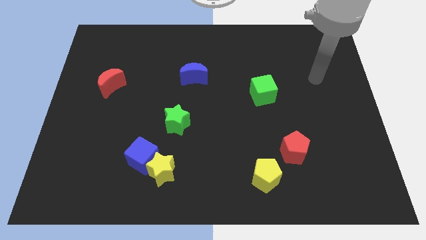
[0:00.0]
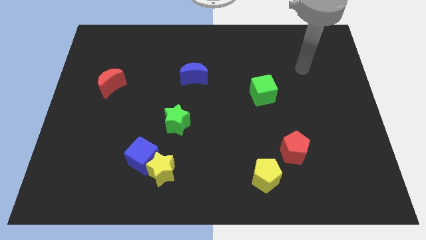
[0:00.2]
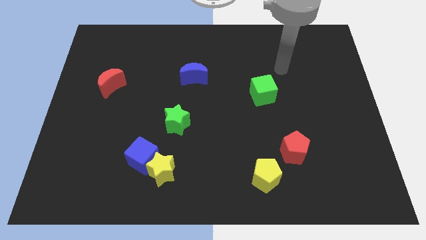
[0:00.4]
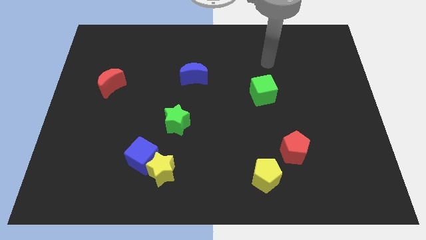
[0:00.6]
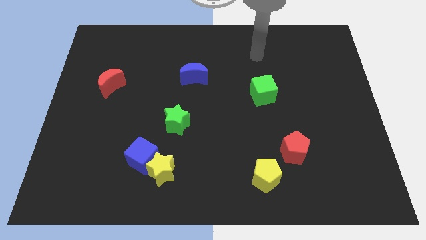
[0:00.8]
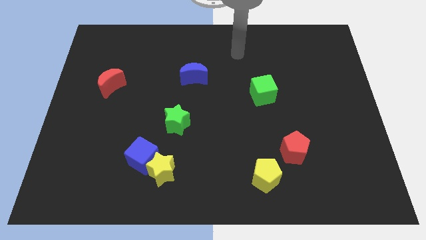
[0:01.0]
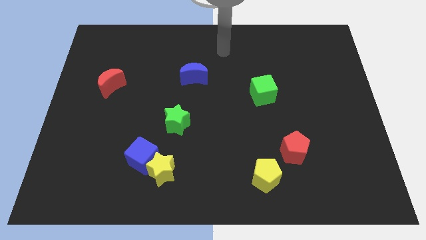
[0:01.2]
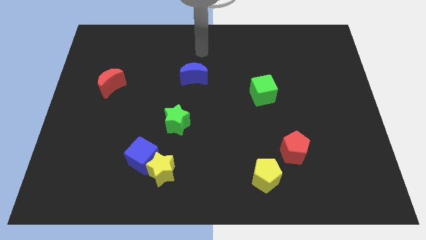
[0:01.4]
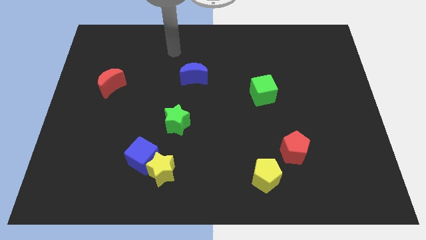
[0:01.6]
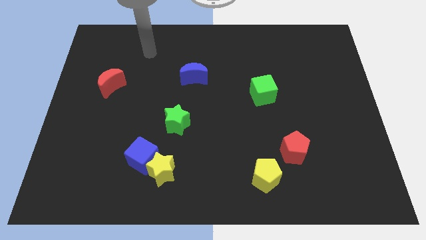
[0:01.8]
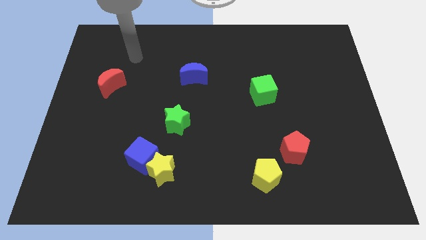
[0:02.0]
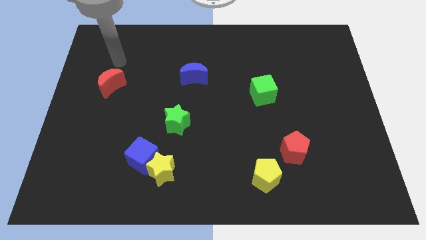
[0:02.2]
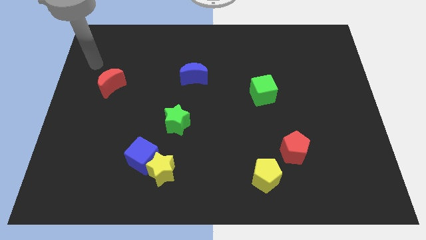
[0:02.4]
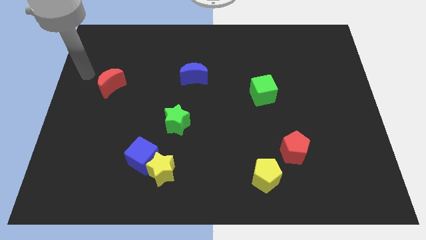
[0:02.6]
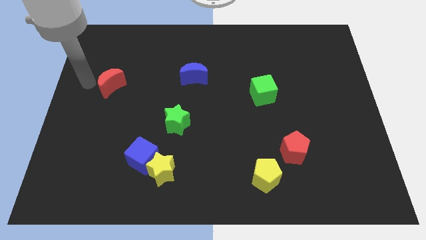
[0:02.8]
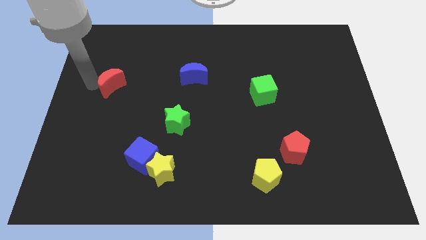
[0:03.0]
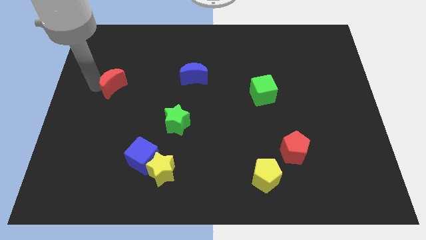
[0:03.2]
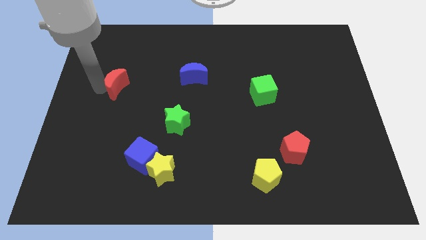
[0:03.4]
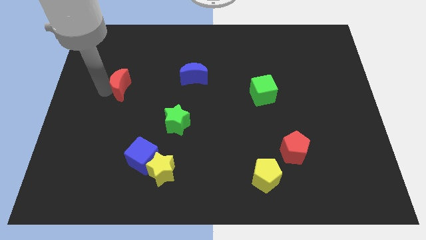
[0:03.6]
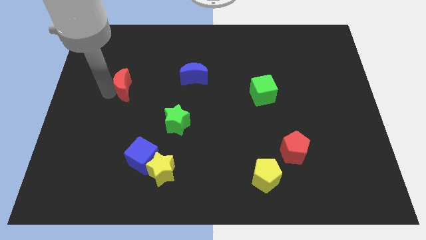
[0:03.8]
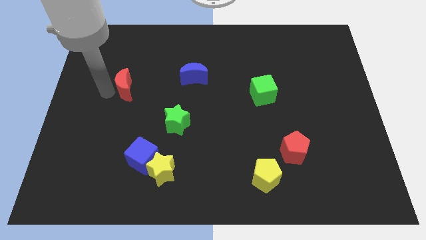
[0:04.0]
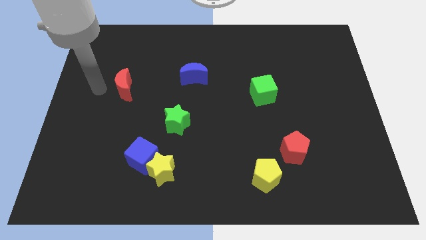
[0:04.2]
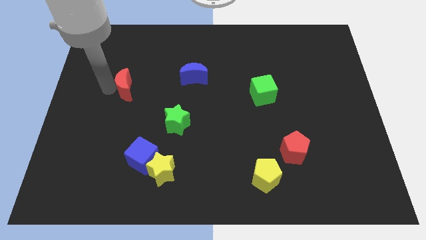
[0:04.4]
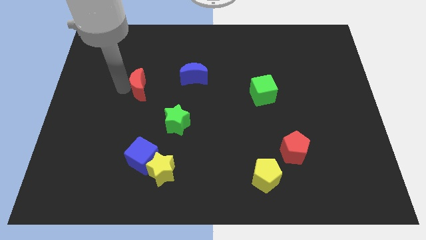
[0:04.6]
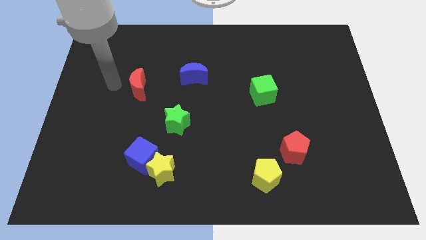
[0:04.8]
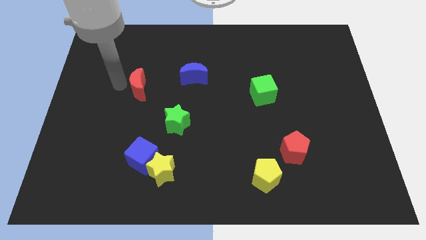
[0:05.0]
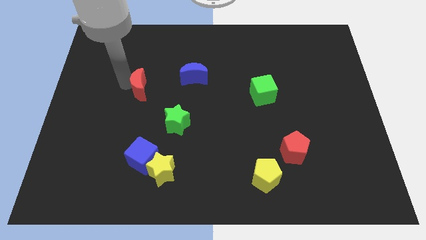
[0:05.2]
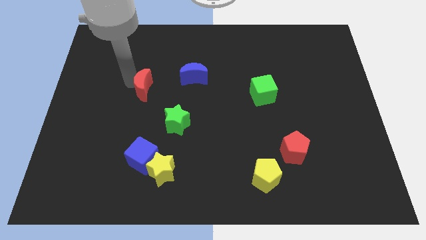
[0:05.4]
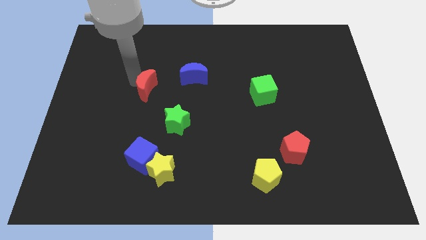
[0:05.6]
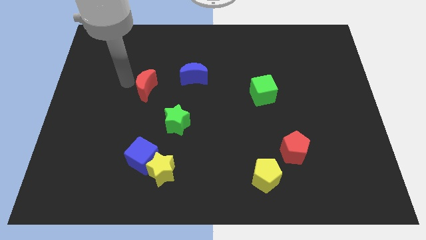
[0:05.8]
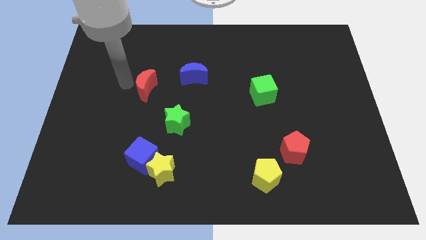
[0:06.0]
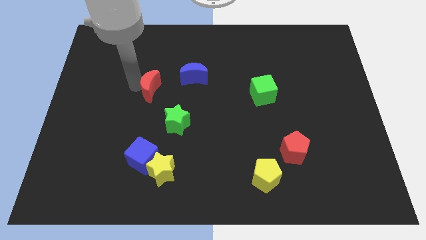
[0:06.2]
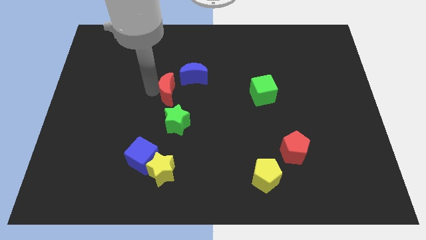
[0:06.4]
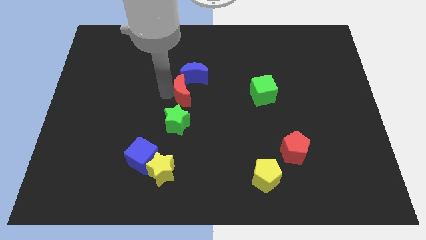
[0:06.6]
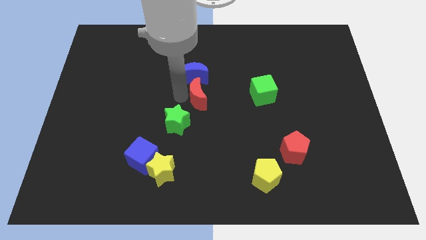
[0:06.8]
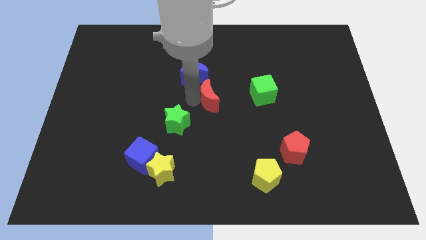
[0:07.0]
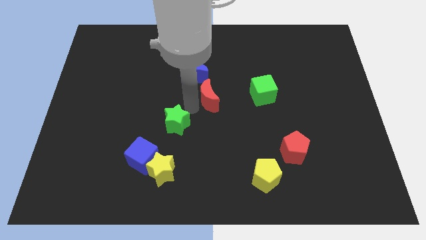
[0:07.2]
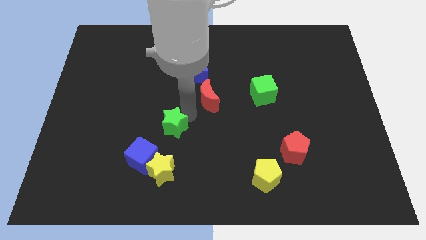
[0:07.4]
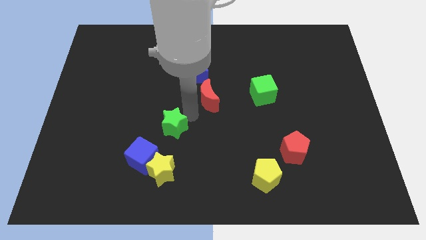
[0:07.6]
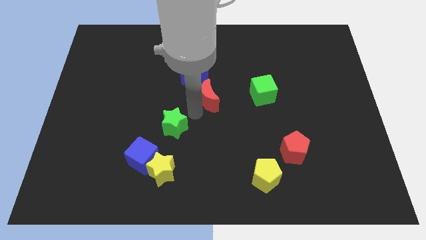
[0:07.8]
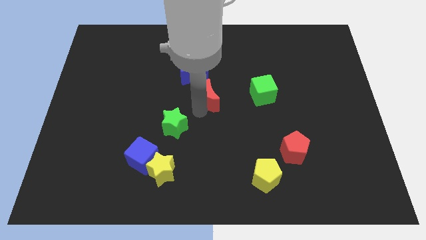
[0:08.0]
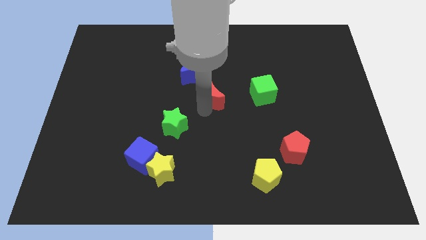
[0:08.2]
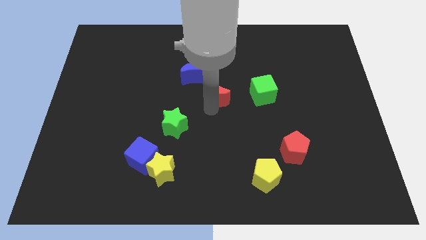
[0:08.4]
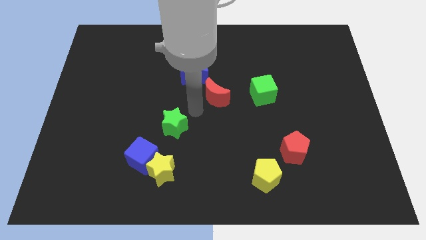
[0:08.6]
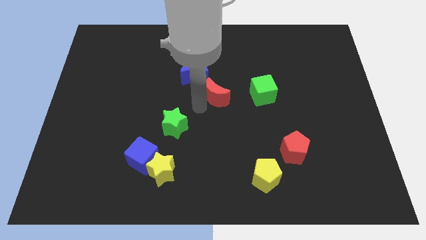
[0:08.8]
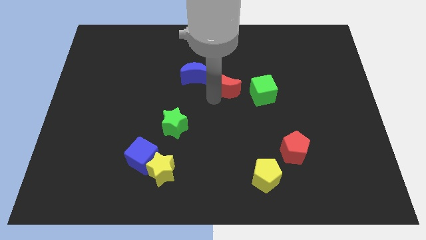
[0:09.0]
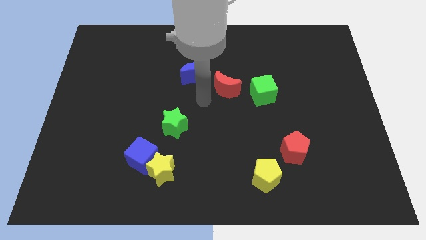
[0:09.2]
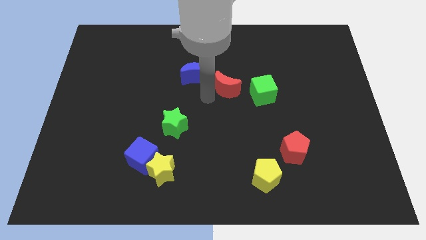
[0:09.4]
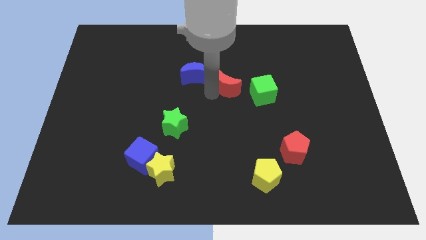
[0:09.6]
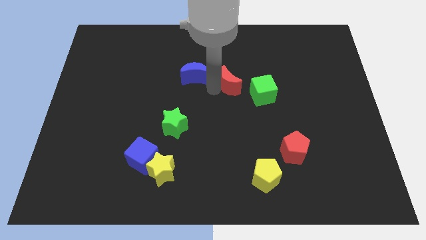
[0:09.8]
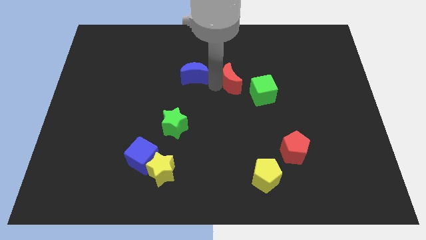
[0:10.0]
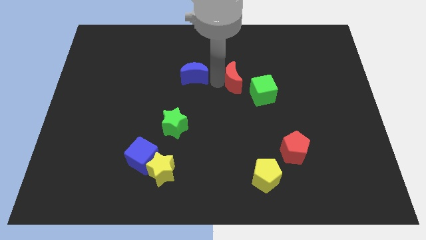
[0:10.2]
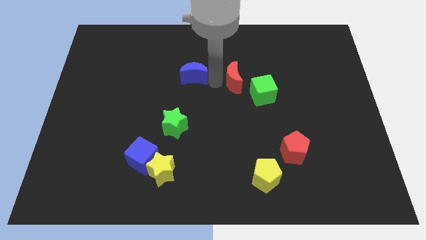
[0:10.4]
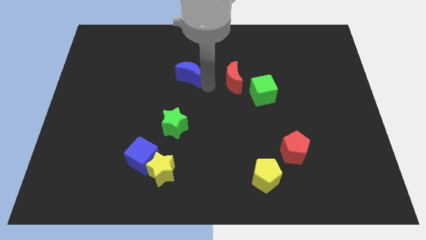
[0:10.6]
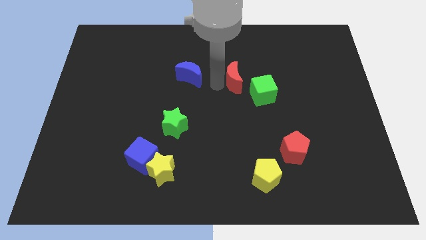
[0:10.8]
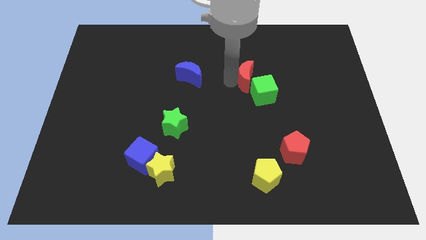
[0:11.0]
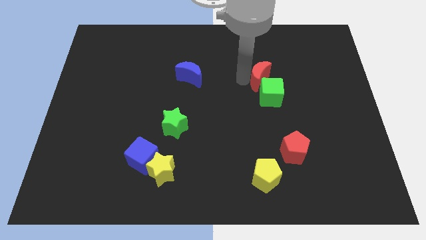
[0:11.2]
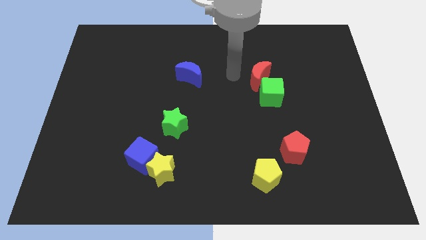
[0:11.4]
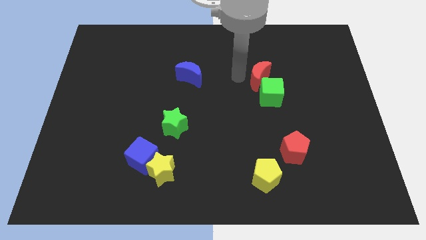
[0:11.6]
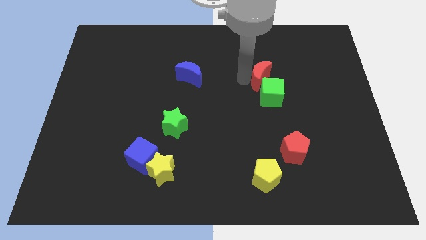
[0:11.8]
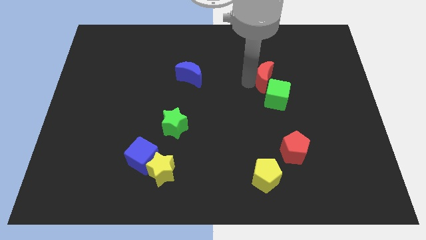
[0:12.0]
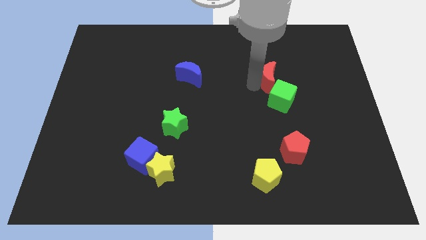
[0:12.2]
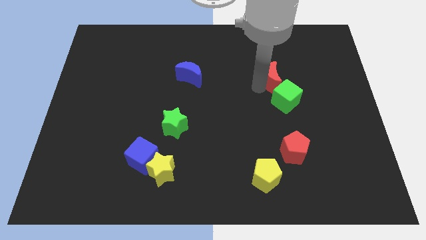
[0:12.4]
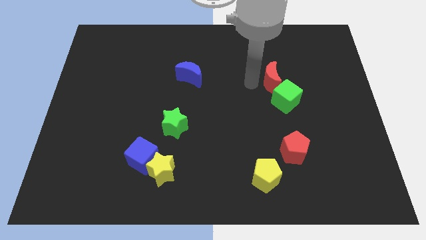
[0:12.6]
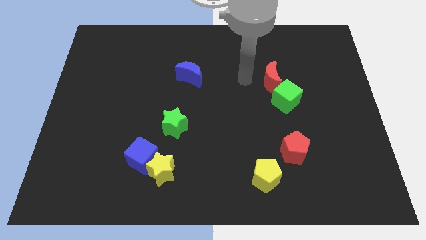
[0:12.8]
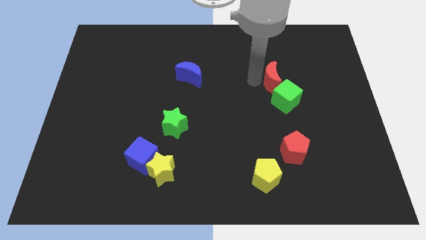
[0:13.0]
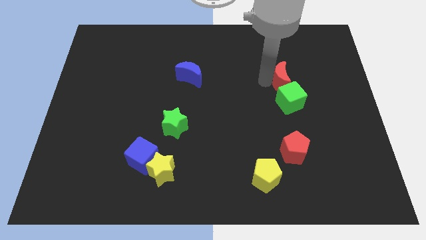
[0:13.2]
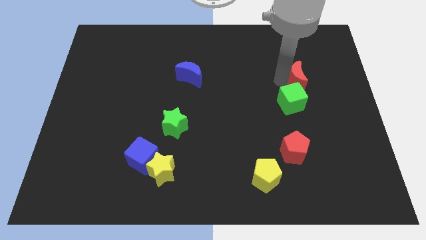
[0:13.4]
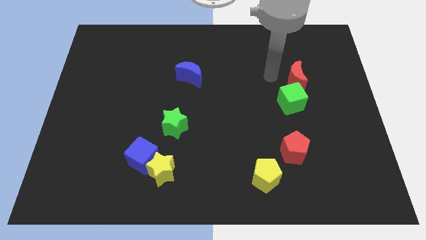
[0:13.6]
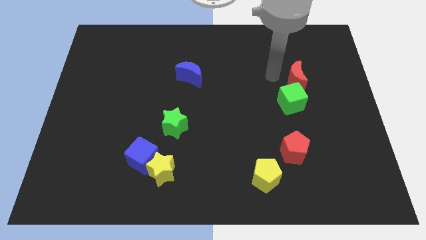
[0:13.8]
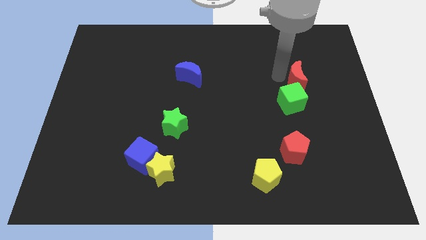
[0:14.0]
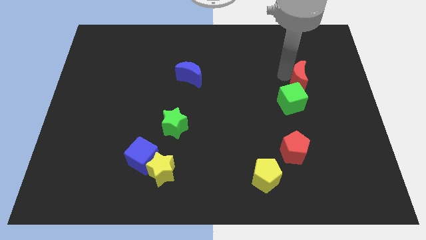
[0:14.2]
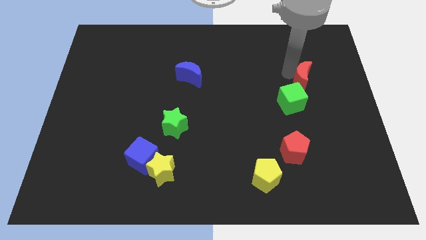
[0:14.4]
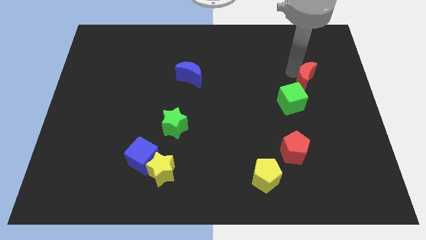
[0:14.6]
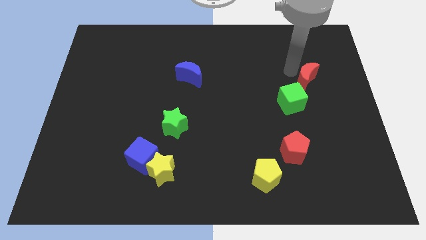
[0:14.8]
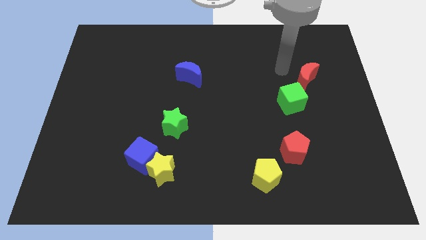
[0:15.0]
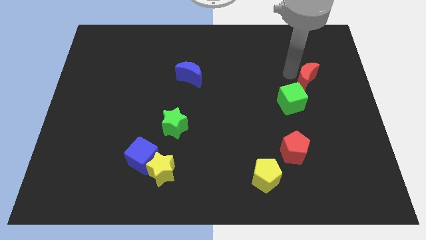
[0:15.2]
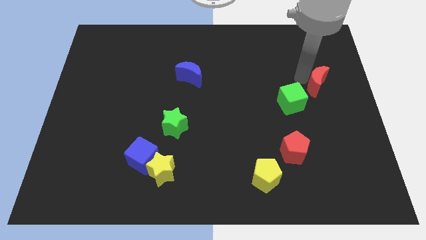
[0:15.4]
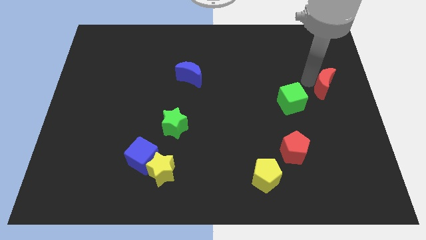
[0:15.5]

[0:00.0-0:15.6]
push the red moon to the right side
